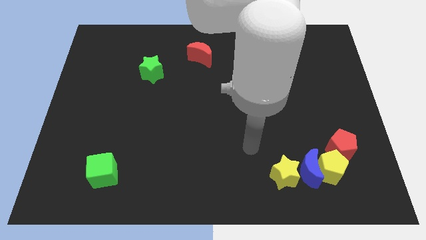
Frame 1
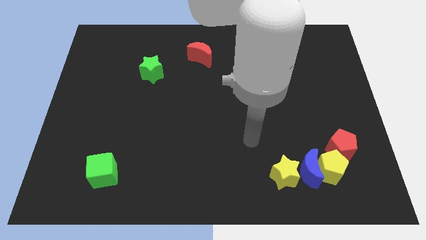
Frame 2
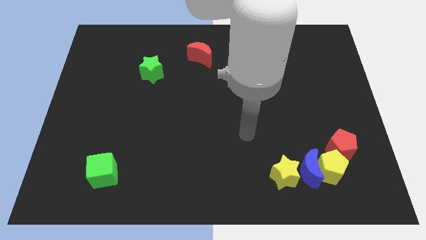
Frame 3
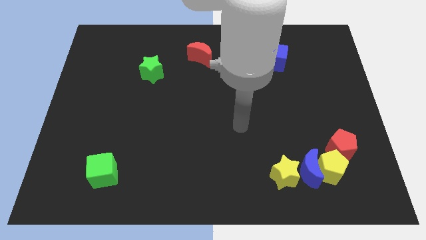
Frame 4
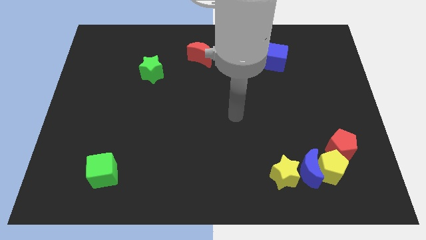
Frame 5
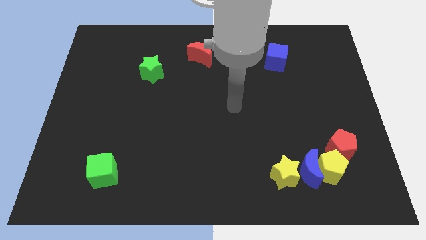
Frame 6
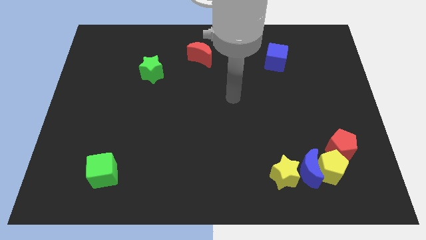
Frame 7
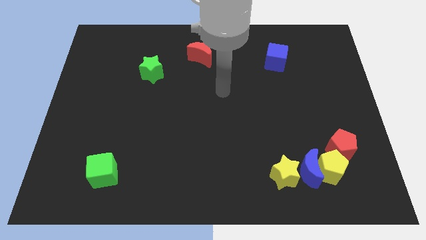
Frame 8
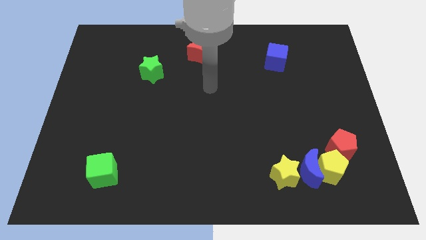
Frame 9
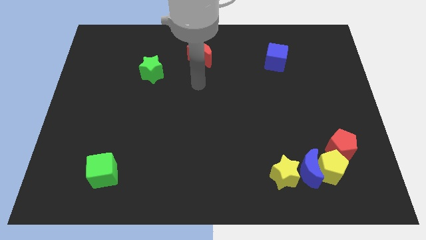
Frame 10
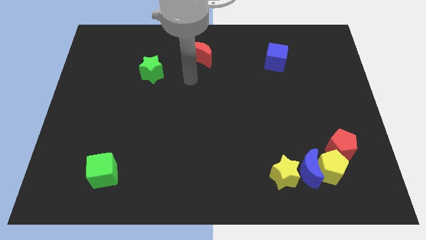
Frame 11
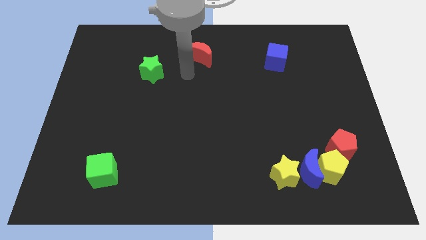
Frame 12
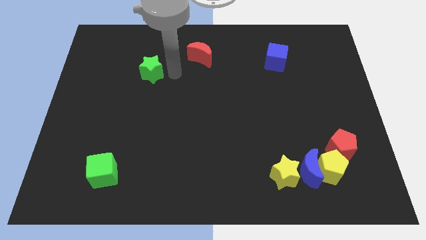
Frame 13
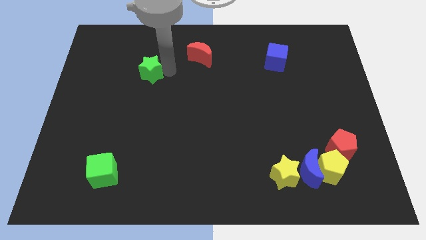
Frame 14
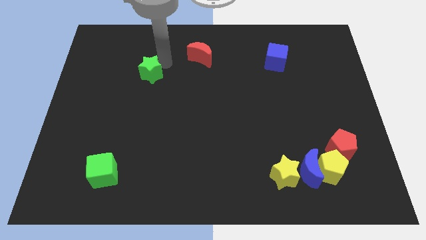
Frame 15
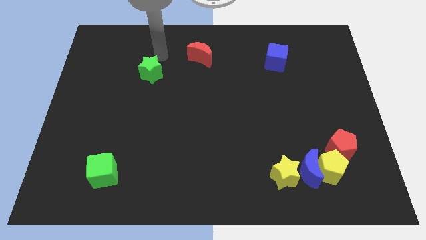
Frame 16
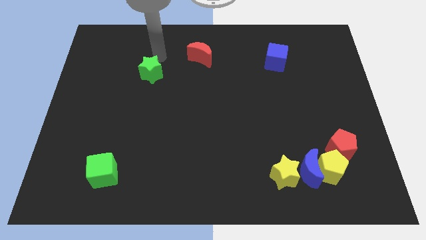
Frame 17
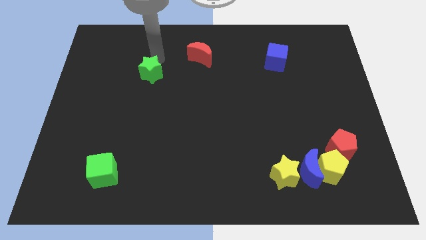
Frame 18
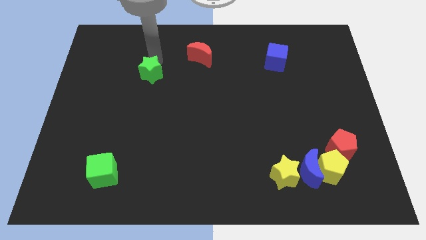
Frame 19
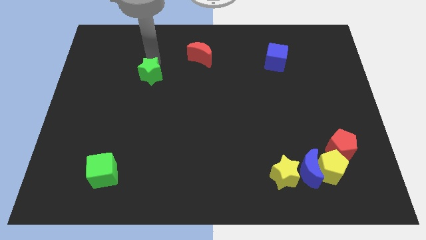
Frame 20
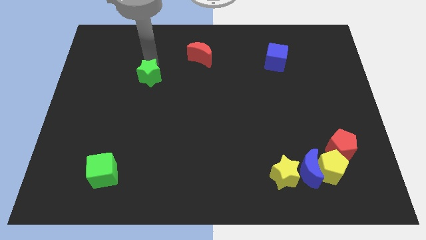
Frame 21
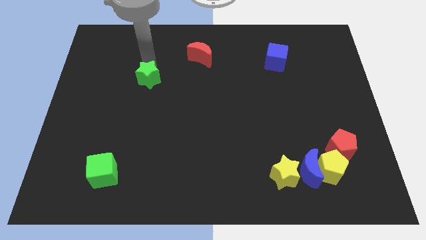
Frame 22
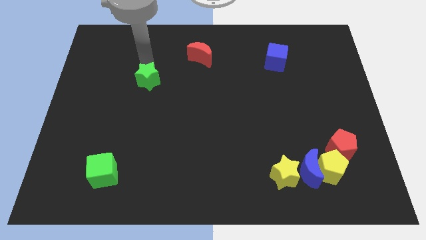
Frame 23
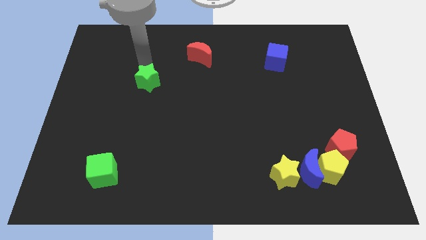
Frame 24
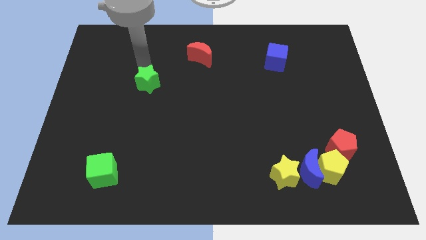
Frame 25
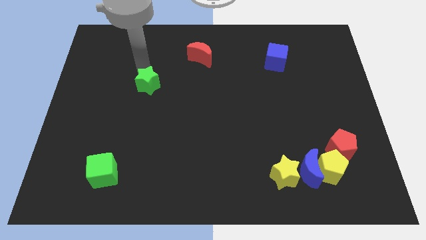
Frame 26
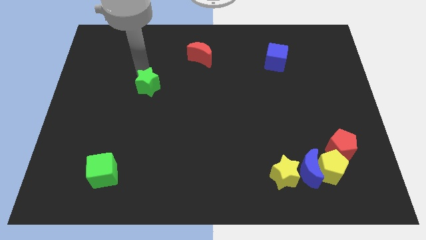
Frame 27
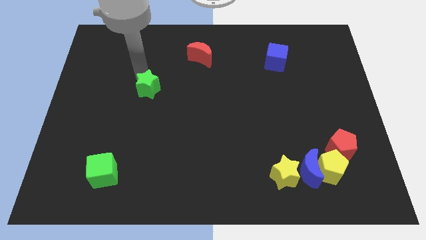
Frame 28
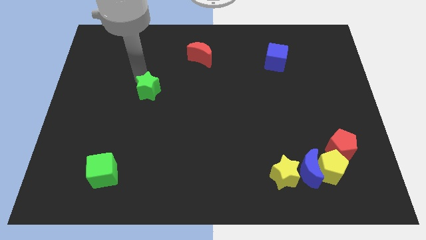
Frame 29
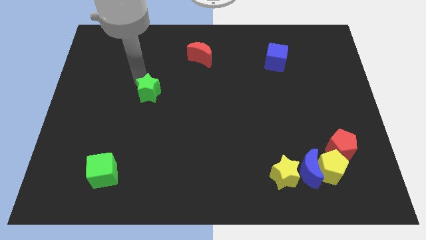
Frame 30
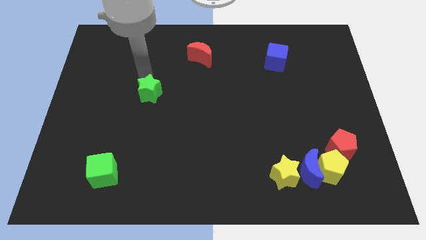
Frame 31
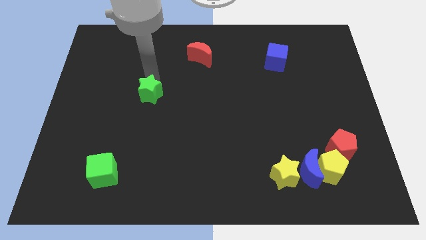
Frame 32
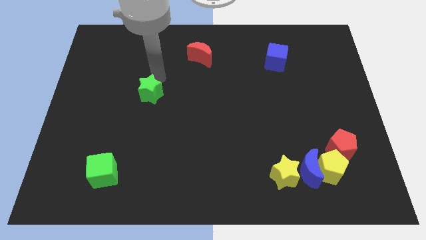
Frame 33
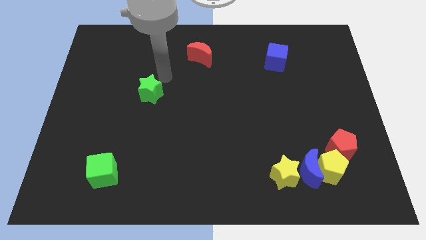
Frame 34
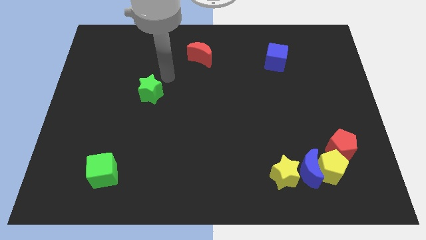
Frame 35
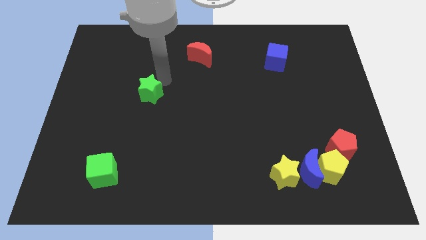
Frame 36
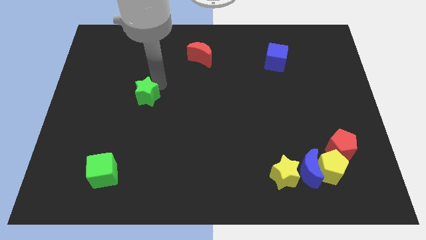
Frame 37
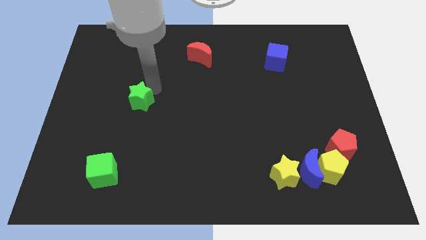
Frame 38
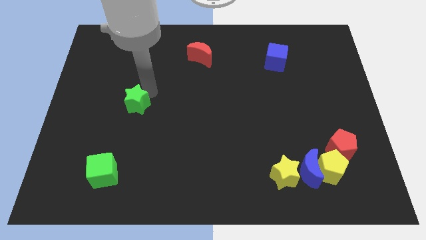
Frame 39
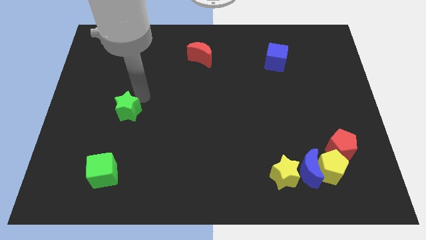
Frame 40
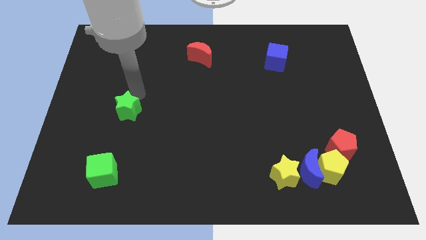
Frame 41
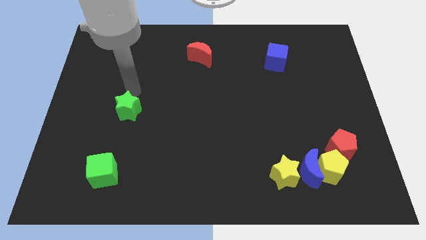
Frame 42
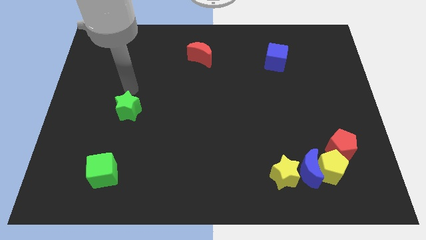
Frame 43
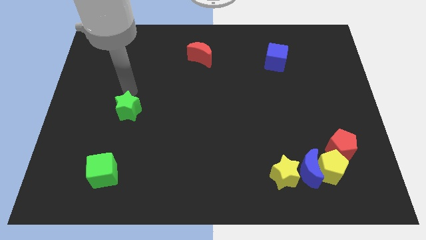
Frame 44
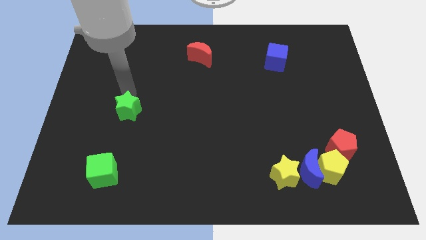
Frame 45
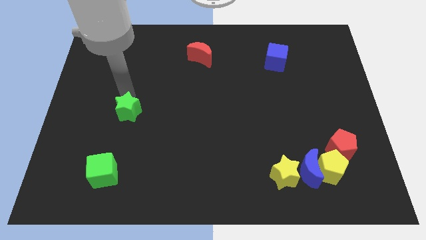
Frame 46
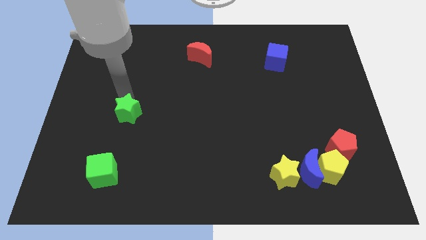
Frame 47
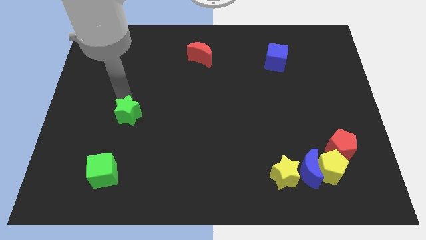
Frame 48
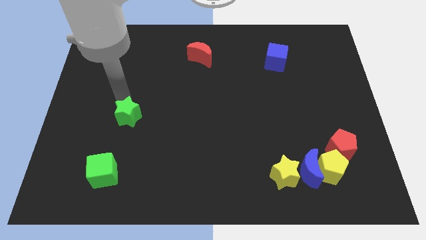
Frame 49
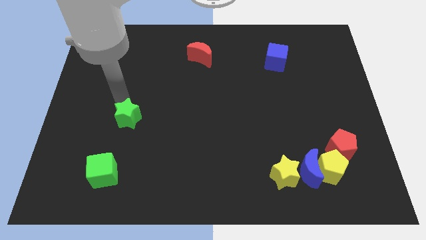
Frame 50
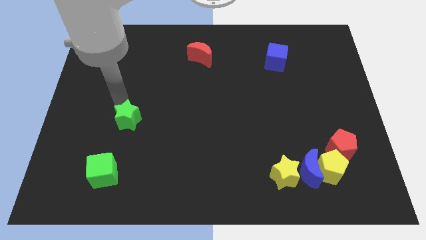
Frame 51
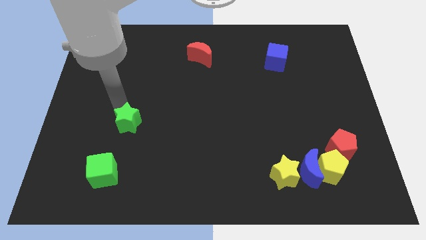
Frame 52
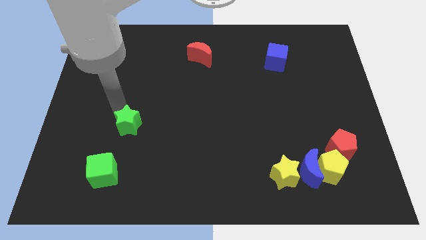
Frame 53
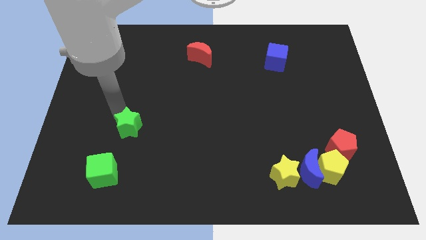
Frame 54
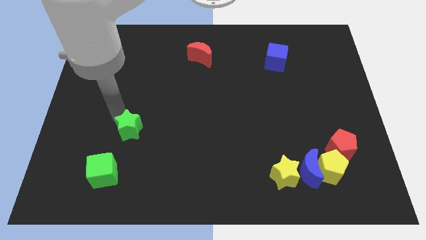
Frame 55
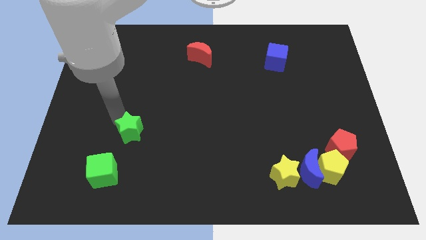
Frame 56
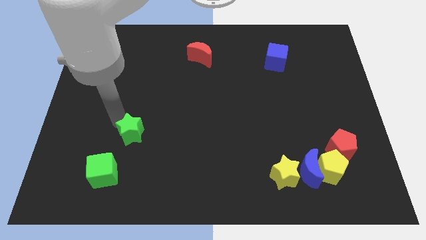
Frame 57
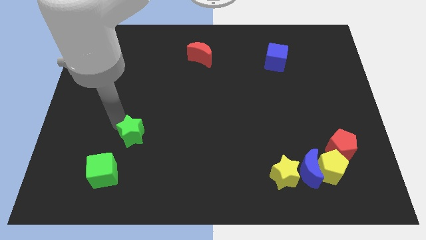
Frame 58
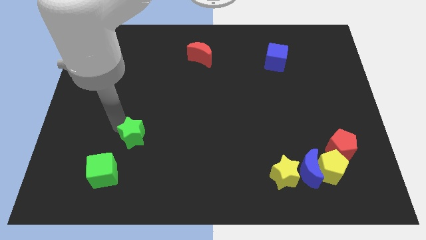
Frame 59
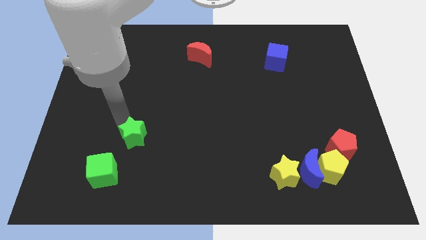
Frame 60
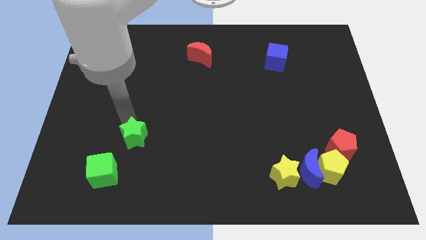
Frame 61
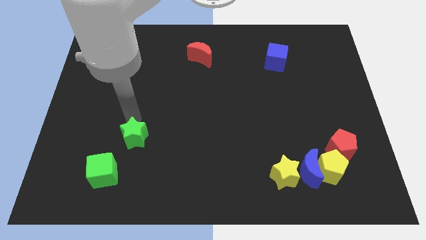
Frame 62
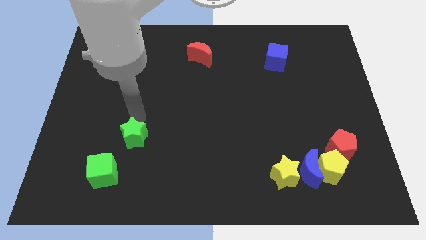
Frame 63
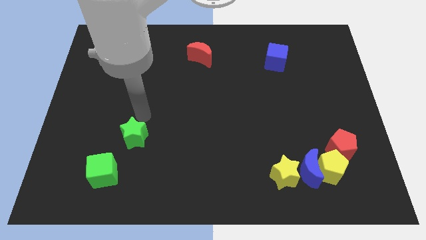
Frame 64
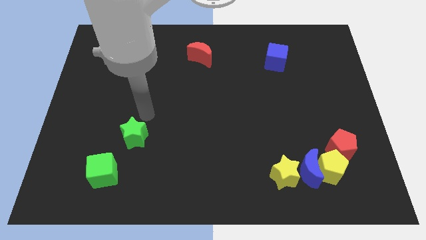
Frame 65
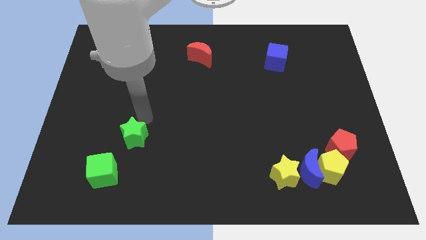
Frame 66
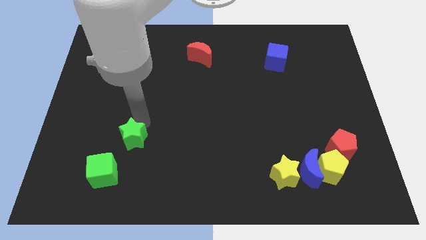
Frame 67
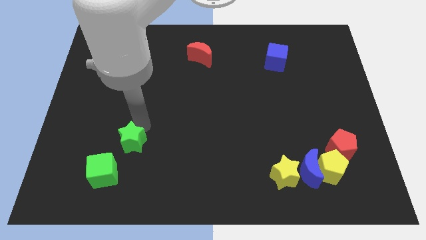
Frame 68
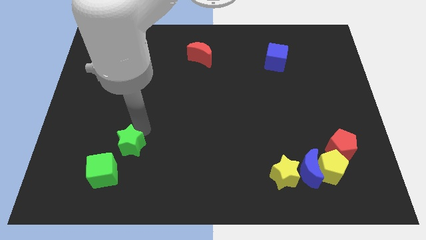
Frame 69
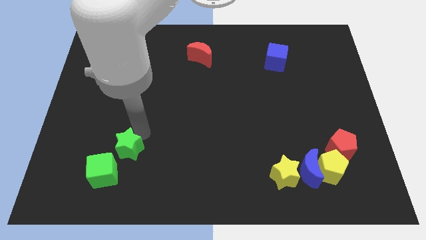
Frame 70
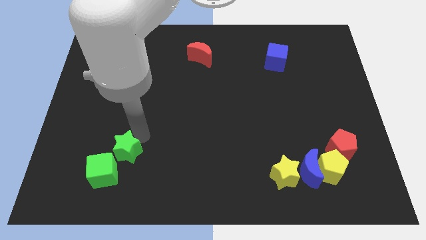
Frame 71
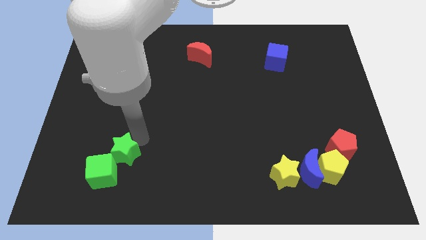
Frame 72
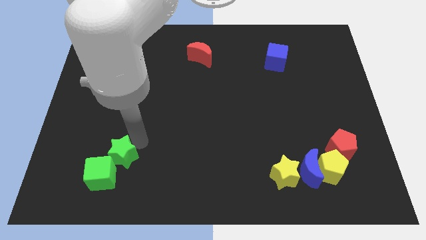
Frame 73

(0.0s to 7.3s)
move the green star close to the green cube
